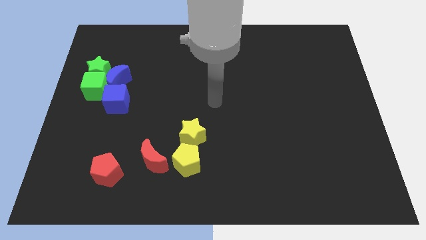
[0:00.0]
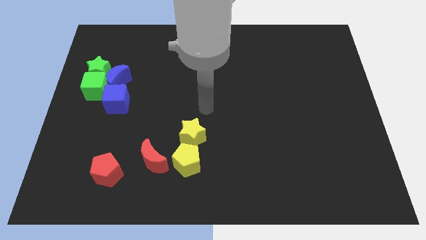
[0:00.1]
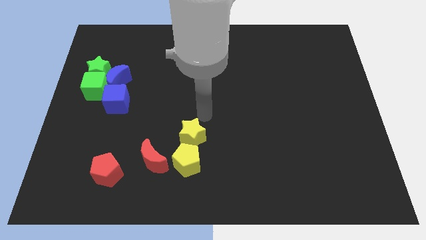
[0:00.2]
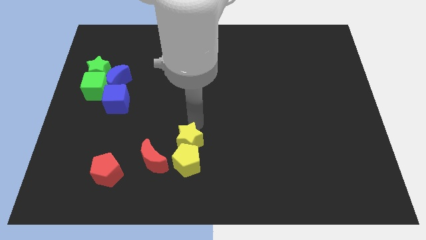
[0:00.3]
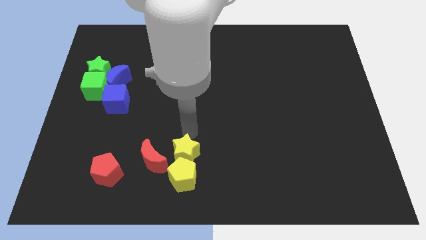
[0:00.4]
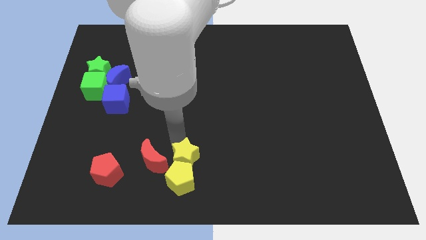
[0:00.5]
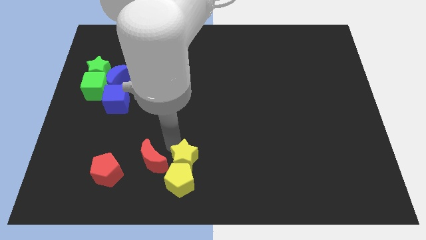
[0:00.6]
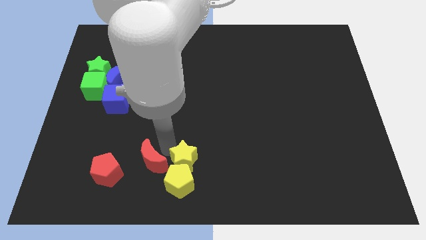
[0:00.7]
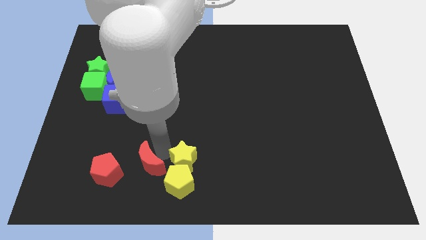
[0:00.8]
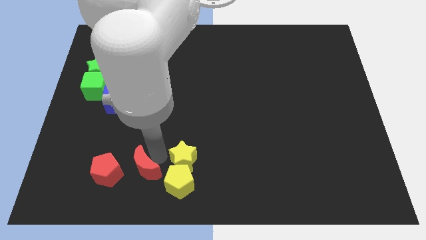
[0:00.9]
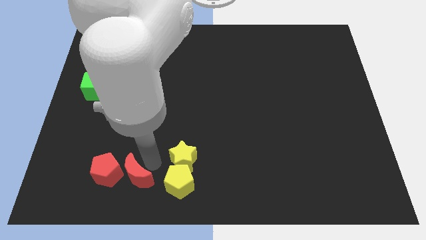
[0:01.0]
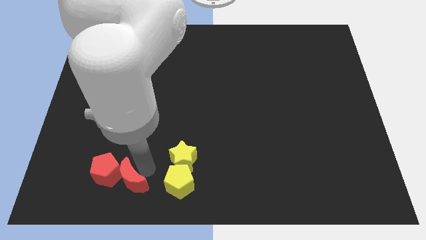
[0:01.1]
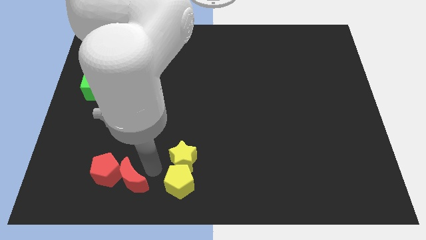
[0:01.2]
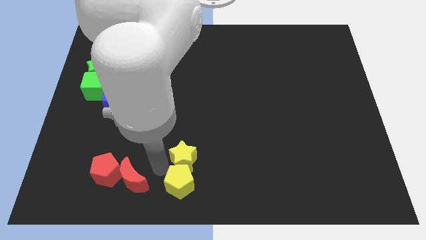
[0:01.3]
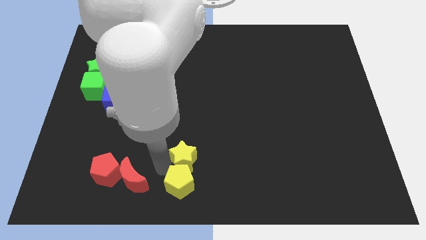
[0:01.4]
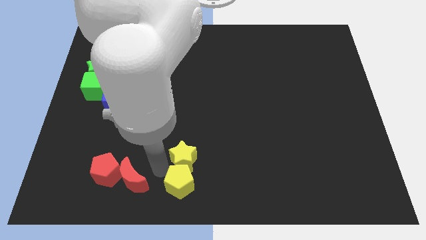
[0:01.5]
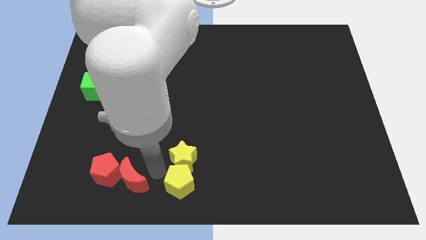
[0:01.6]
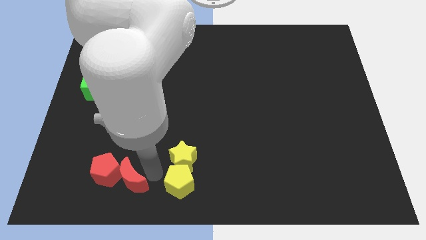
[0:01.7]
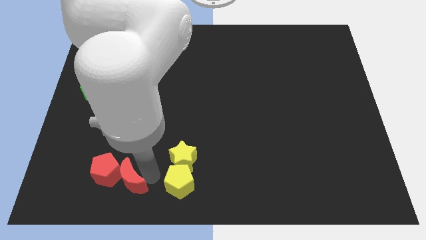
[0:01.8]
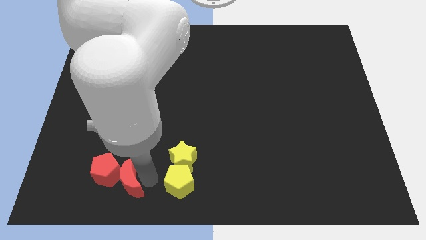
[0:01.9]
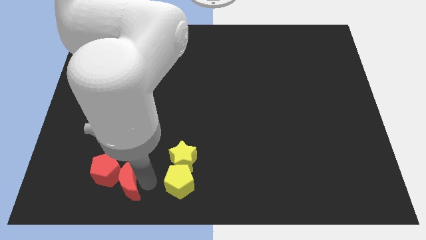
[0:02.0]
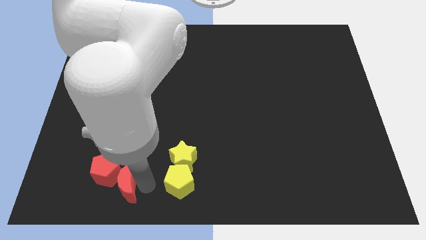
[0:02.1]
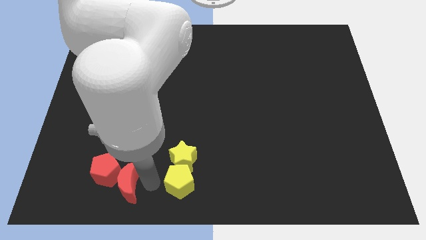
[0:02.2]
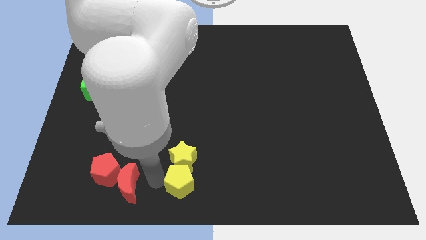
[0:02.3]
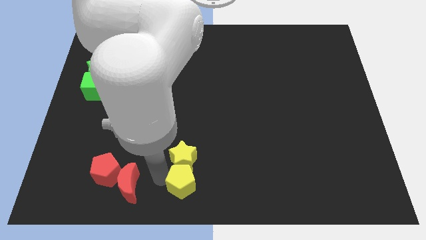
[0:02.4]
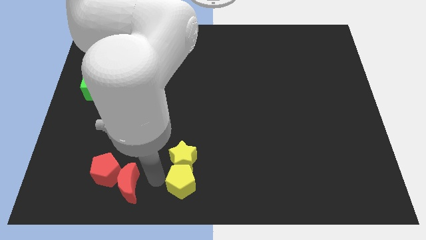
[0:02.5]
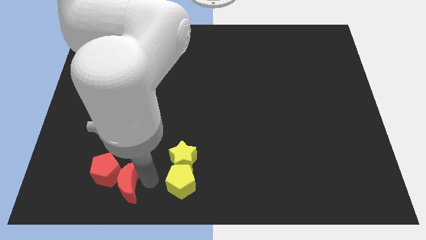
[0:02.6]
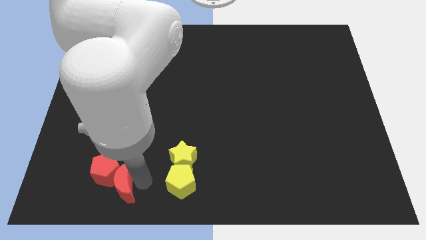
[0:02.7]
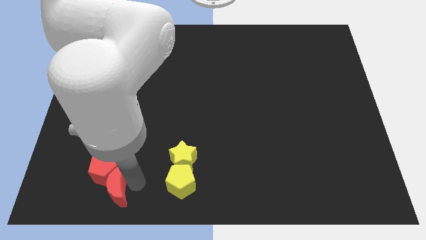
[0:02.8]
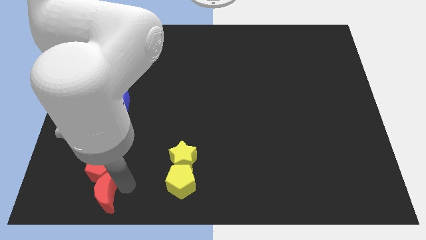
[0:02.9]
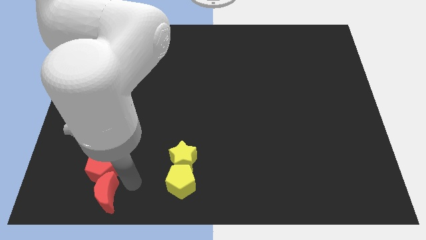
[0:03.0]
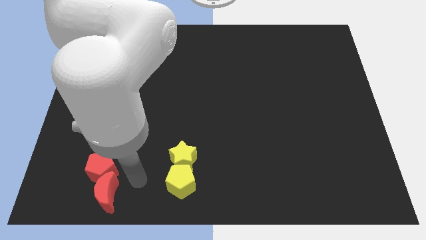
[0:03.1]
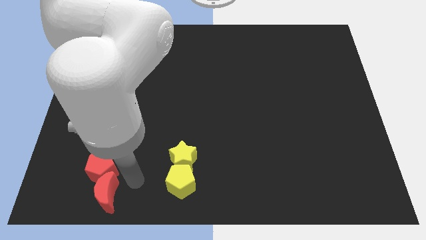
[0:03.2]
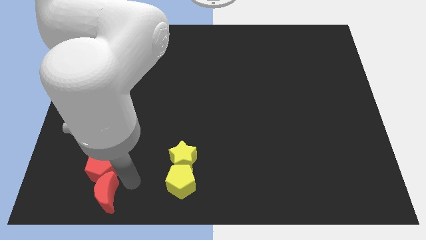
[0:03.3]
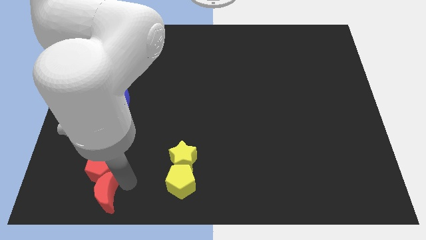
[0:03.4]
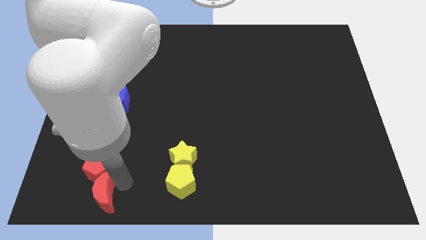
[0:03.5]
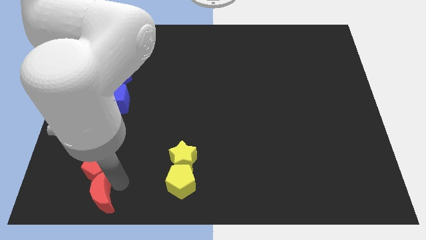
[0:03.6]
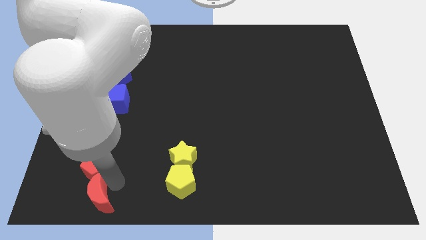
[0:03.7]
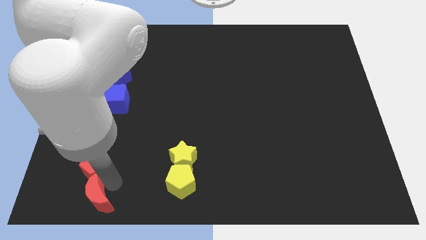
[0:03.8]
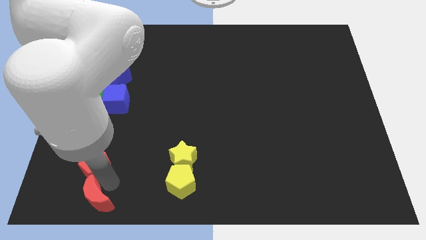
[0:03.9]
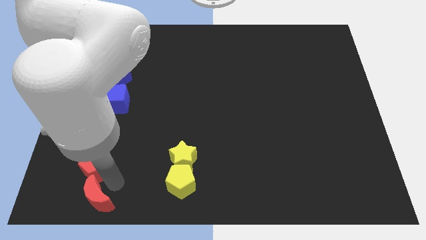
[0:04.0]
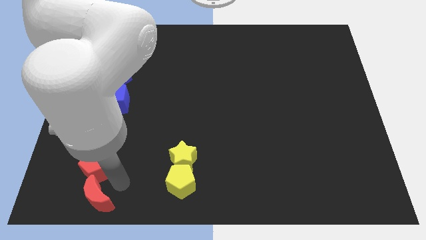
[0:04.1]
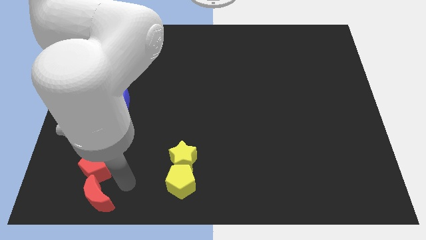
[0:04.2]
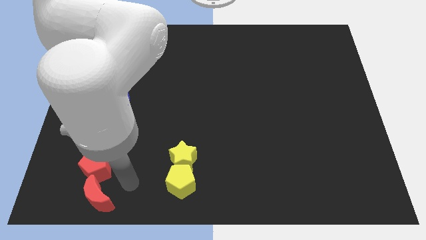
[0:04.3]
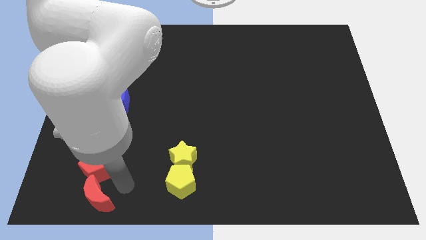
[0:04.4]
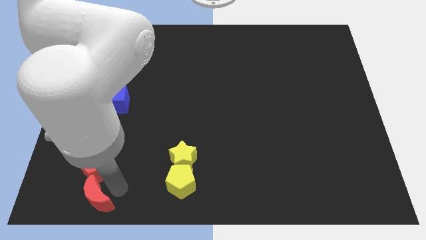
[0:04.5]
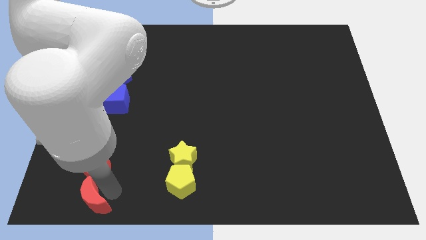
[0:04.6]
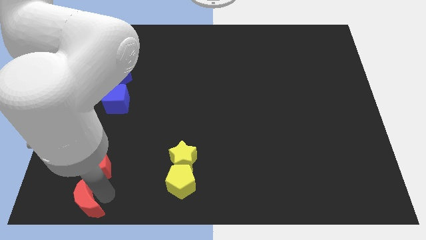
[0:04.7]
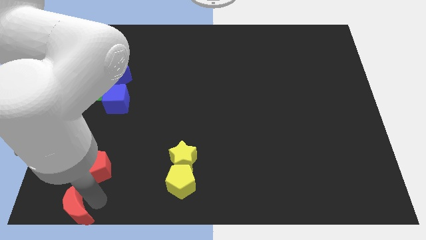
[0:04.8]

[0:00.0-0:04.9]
move the red moon to the bottom left

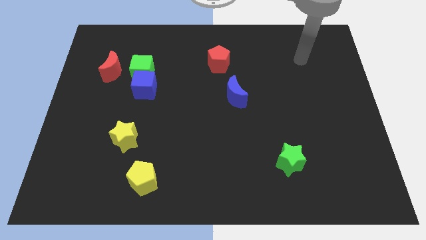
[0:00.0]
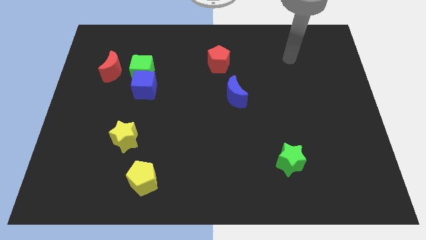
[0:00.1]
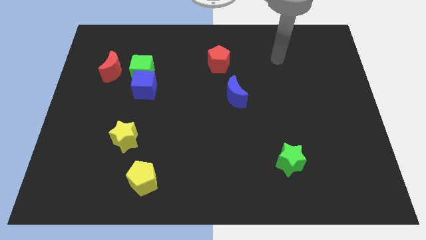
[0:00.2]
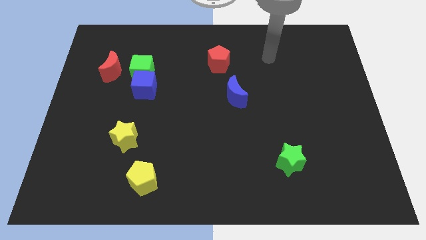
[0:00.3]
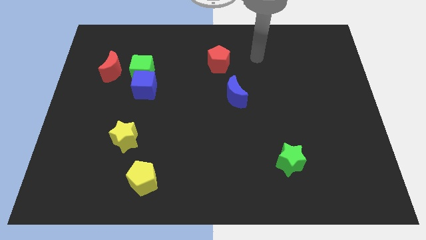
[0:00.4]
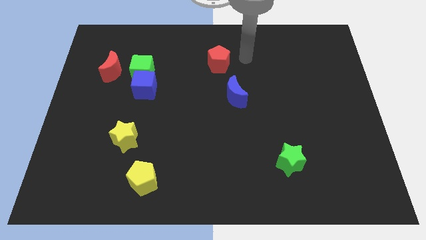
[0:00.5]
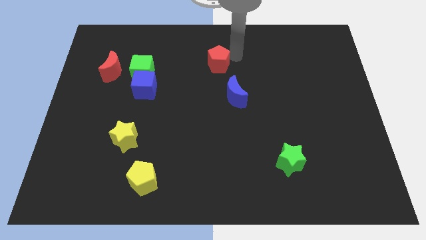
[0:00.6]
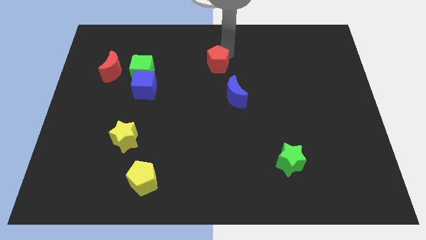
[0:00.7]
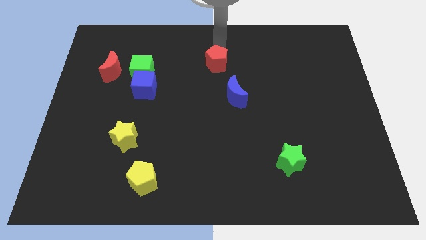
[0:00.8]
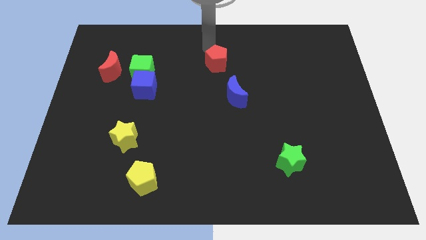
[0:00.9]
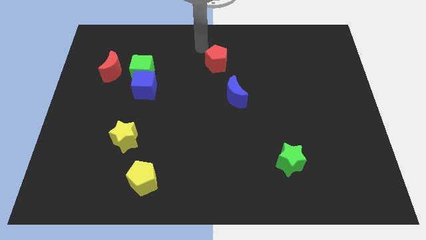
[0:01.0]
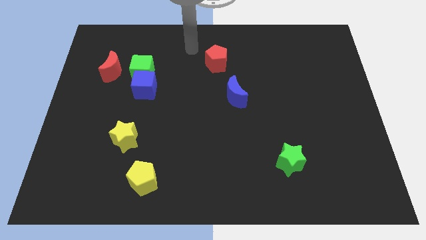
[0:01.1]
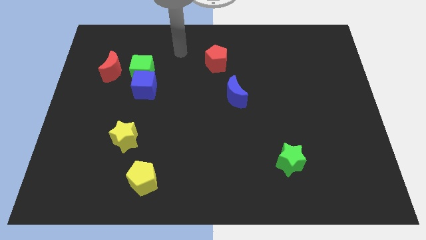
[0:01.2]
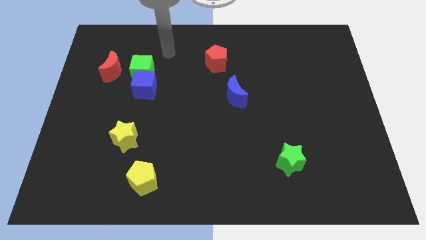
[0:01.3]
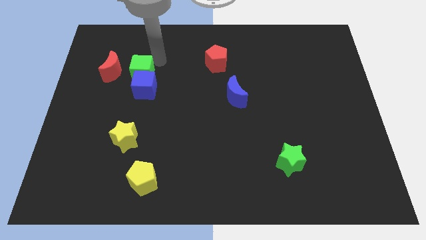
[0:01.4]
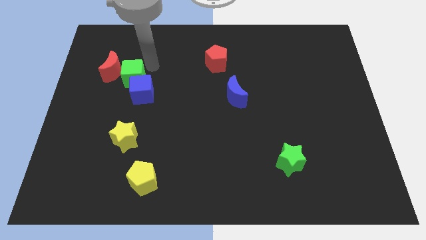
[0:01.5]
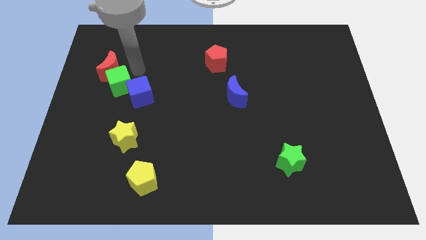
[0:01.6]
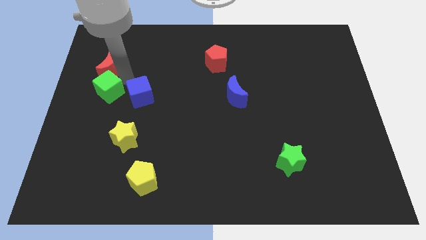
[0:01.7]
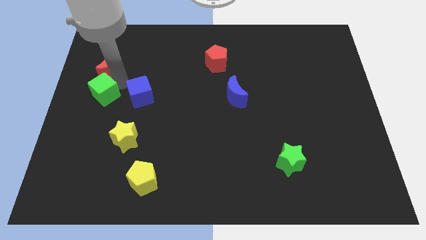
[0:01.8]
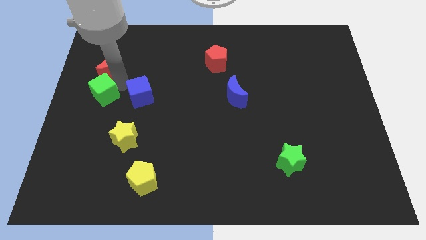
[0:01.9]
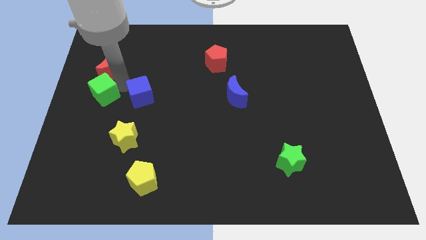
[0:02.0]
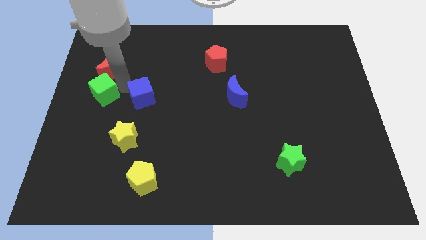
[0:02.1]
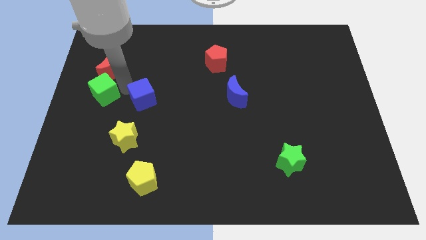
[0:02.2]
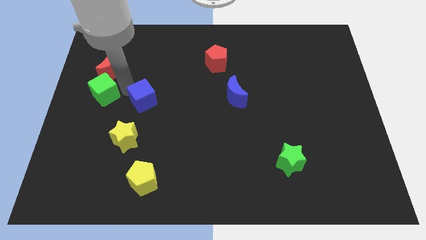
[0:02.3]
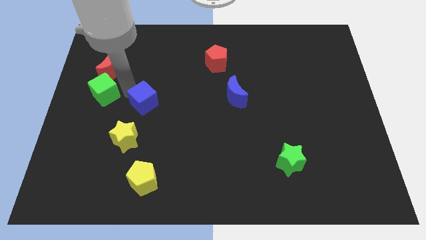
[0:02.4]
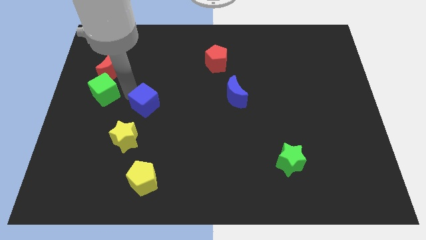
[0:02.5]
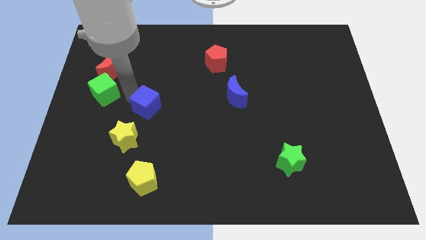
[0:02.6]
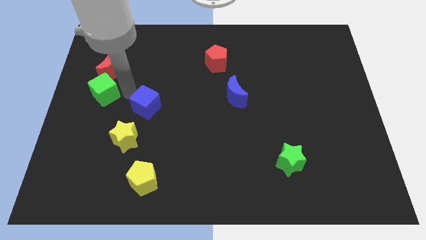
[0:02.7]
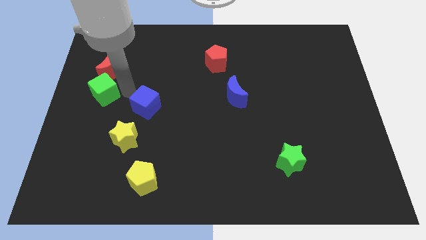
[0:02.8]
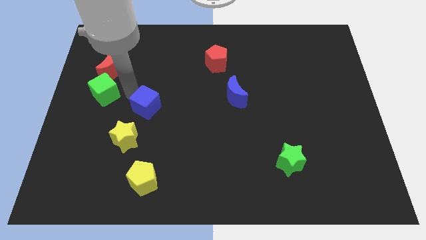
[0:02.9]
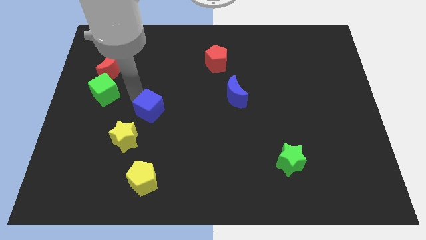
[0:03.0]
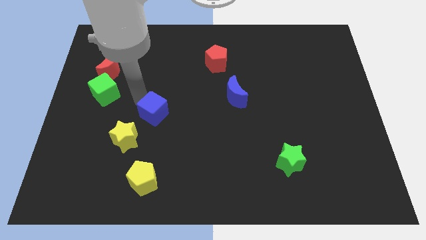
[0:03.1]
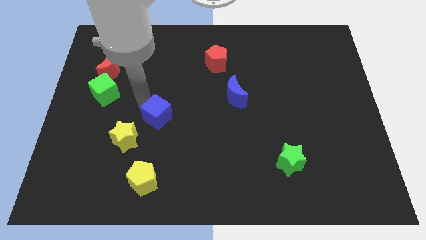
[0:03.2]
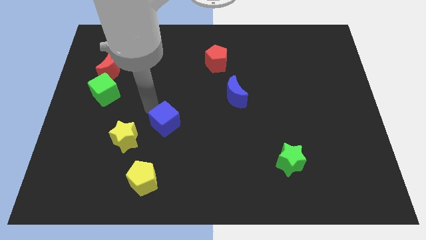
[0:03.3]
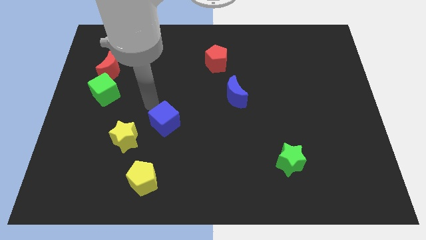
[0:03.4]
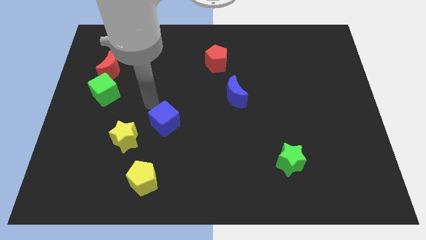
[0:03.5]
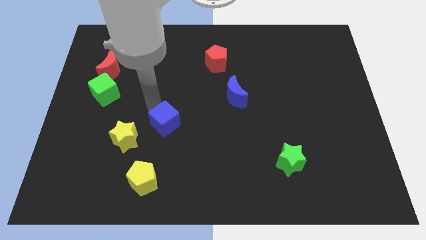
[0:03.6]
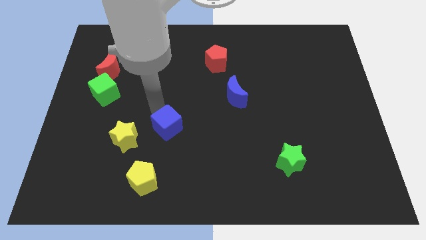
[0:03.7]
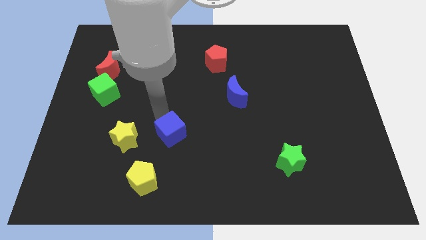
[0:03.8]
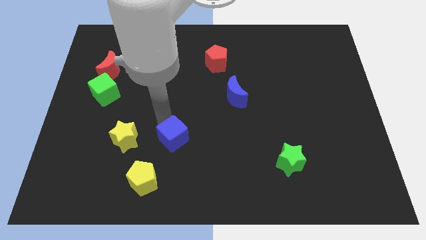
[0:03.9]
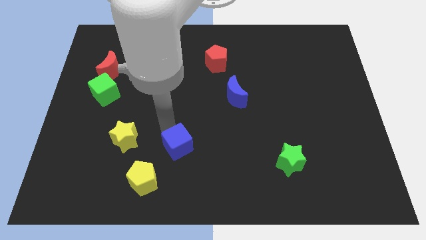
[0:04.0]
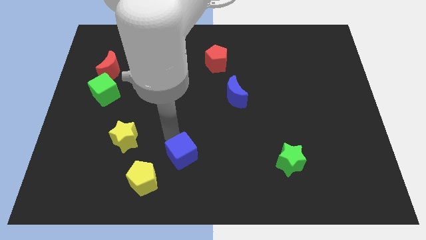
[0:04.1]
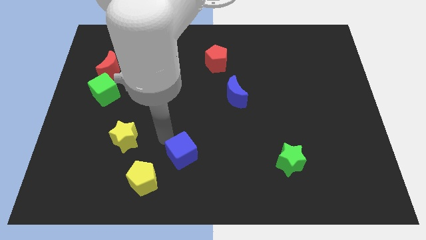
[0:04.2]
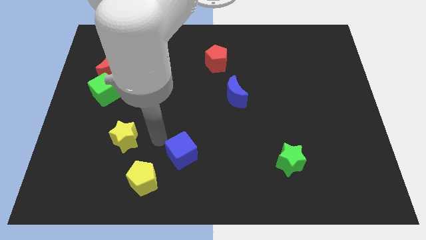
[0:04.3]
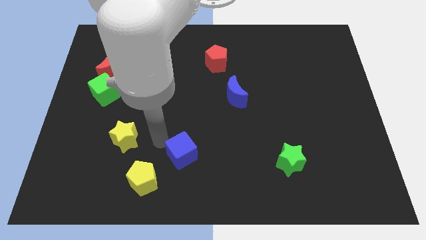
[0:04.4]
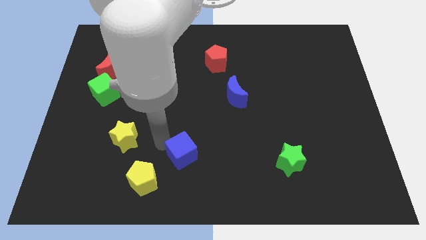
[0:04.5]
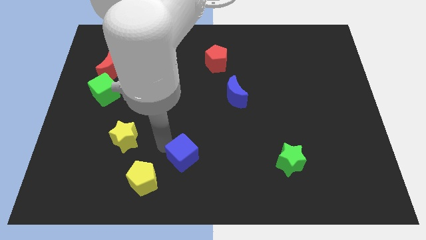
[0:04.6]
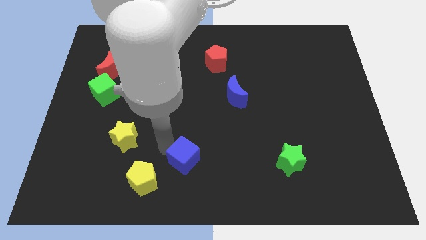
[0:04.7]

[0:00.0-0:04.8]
slide the blue cube to the bottom side
